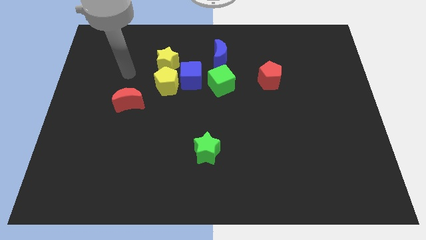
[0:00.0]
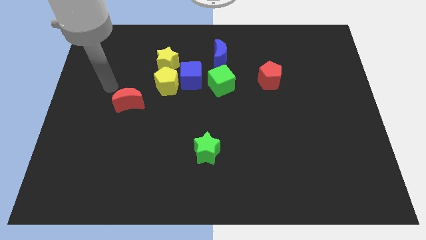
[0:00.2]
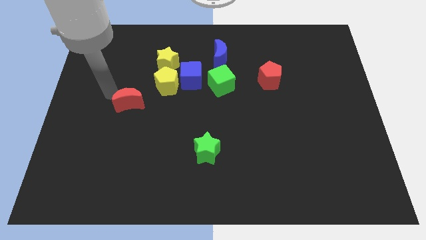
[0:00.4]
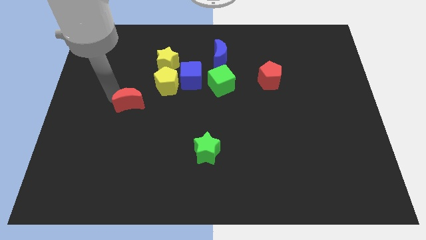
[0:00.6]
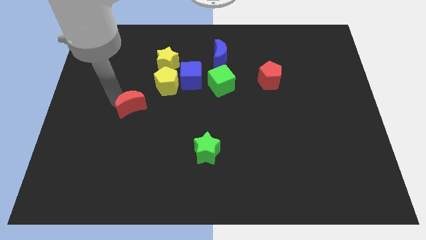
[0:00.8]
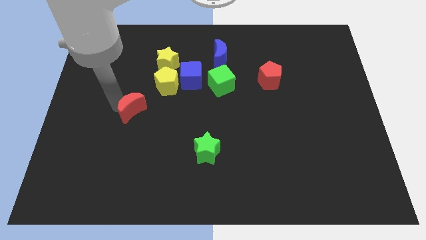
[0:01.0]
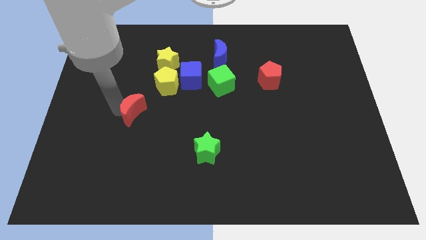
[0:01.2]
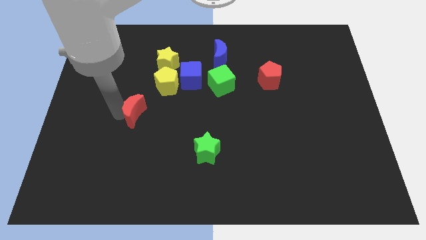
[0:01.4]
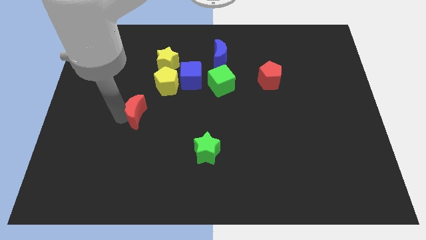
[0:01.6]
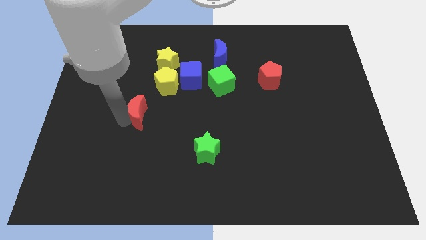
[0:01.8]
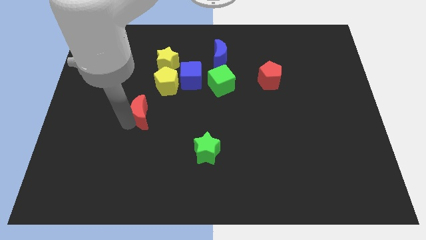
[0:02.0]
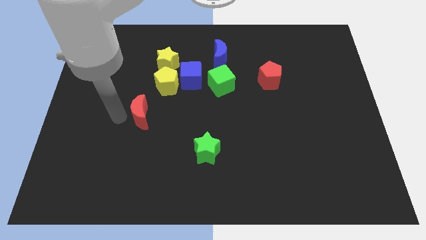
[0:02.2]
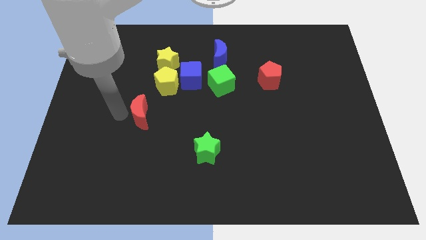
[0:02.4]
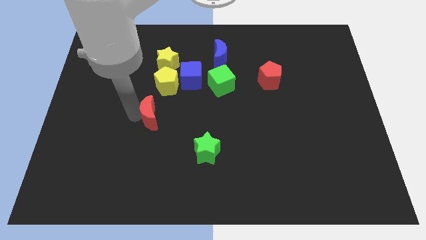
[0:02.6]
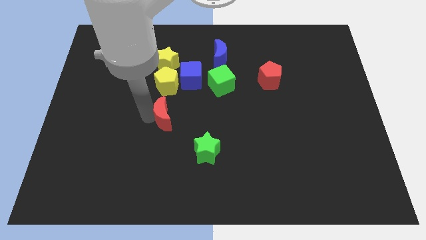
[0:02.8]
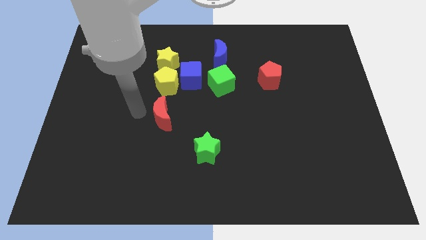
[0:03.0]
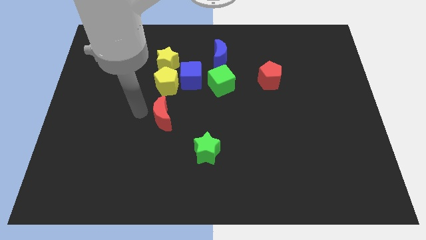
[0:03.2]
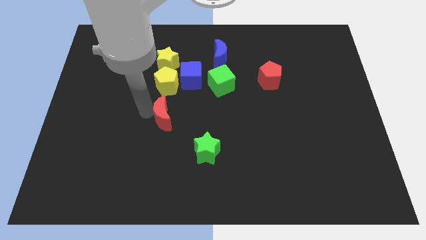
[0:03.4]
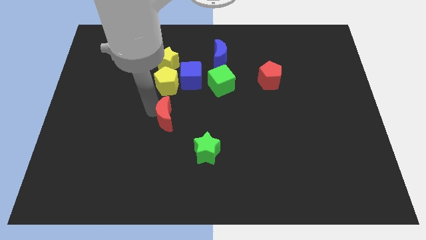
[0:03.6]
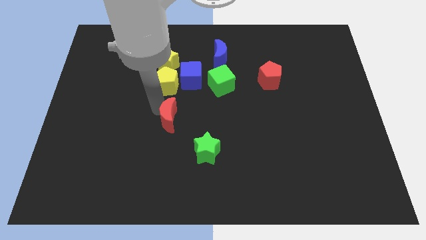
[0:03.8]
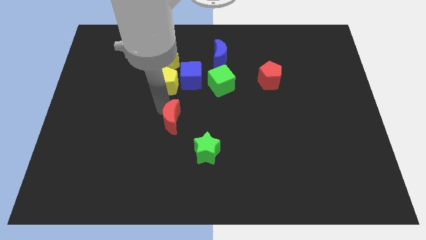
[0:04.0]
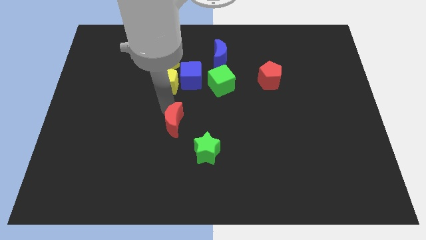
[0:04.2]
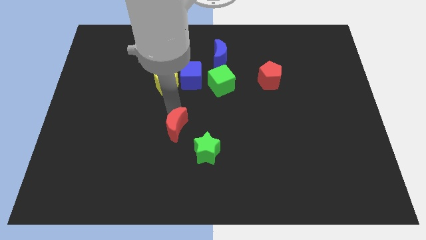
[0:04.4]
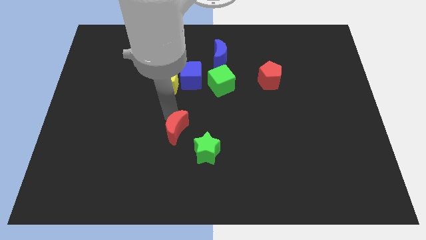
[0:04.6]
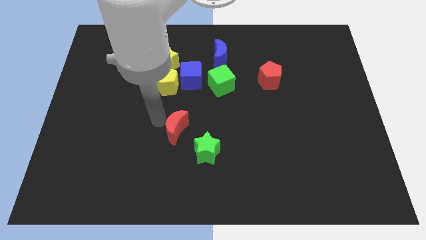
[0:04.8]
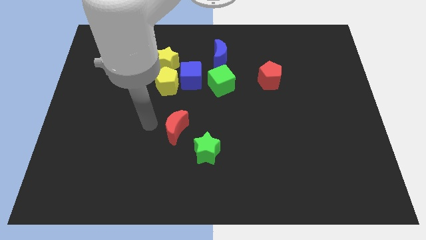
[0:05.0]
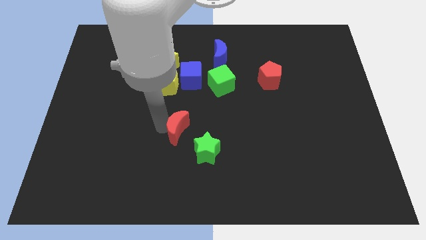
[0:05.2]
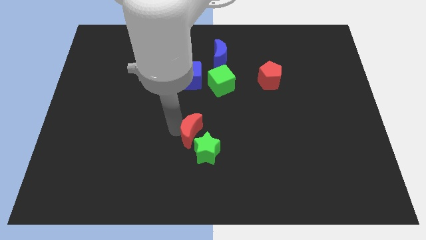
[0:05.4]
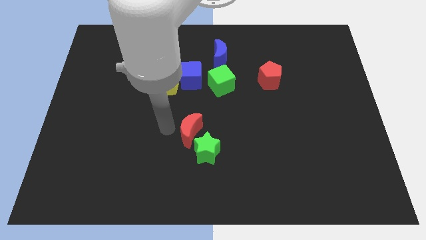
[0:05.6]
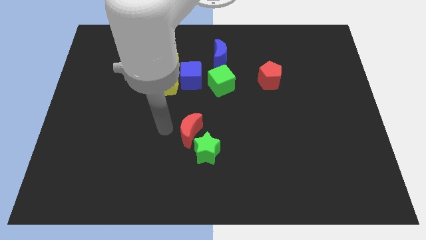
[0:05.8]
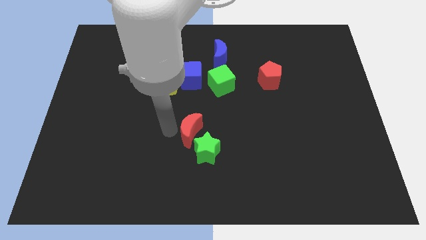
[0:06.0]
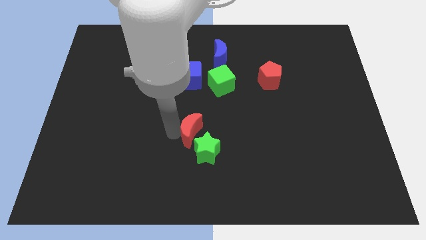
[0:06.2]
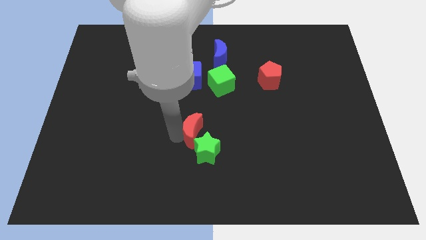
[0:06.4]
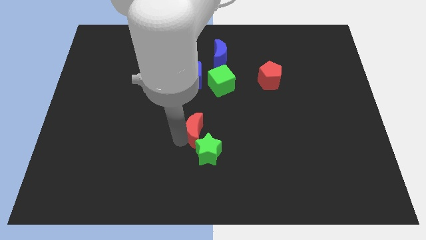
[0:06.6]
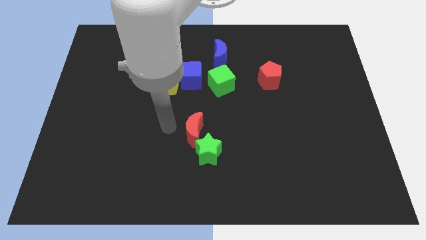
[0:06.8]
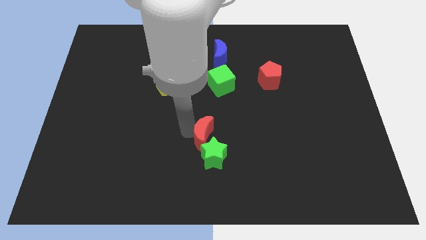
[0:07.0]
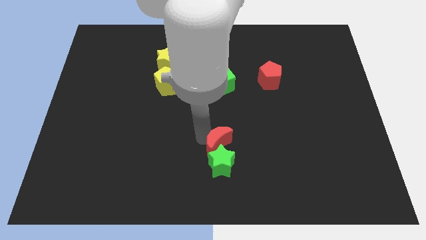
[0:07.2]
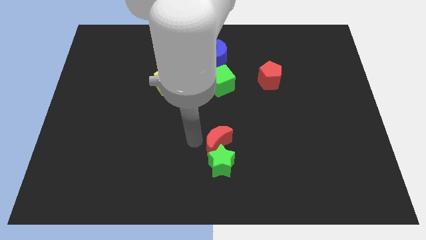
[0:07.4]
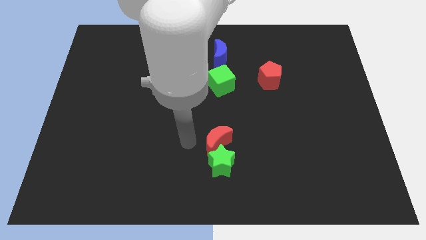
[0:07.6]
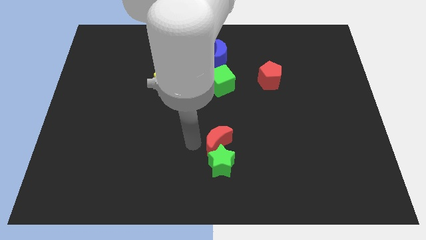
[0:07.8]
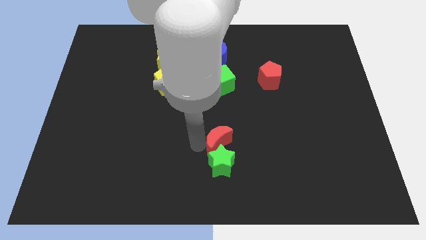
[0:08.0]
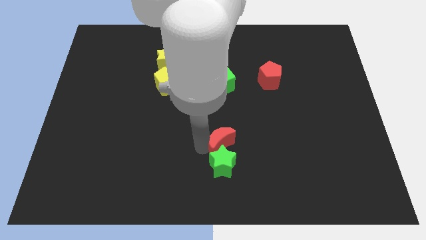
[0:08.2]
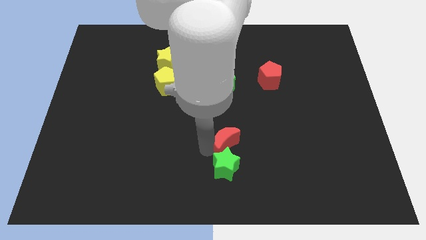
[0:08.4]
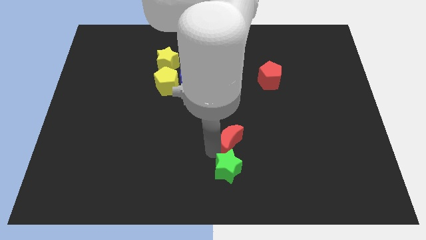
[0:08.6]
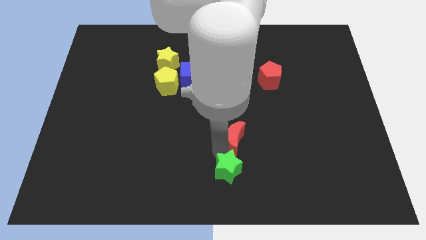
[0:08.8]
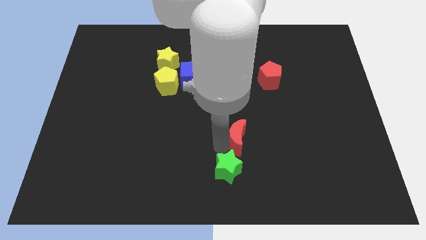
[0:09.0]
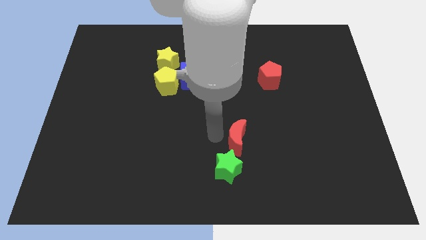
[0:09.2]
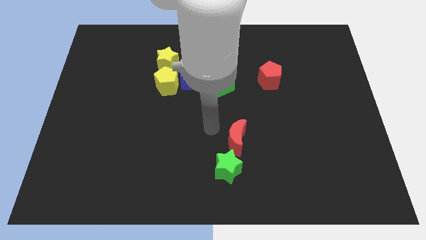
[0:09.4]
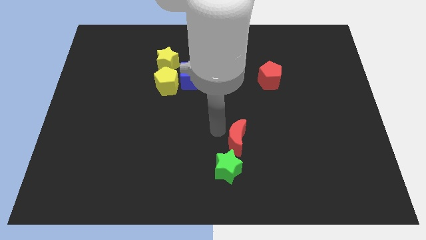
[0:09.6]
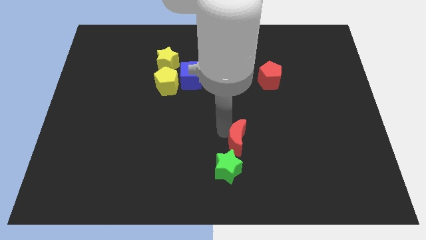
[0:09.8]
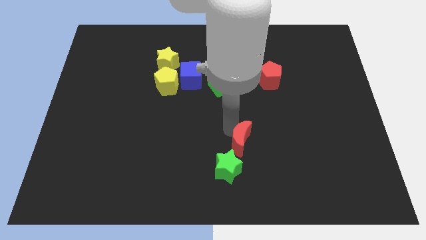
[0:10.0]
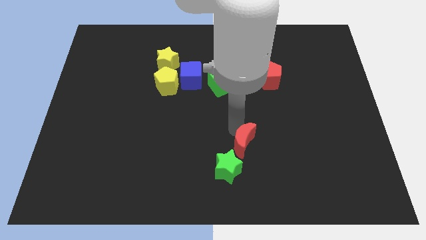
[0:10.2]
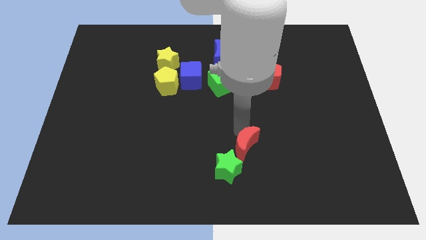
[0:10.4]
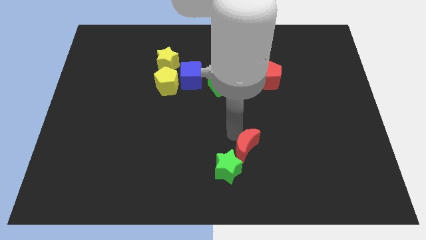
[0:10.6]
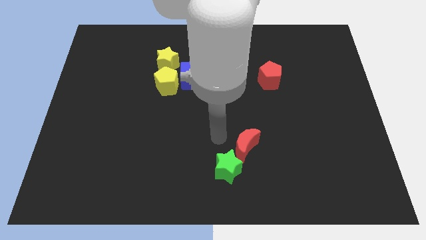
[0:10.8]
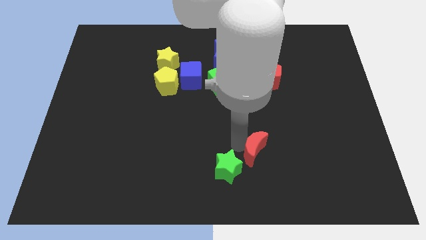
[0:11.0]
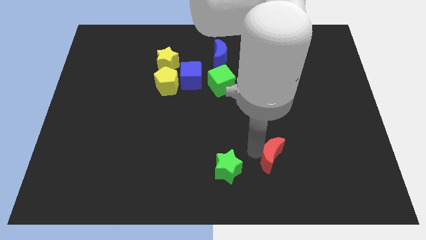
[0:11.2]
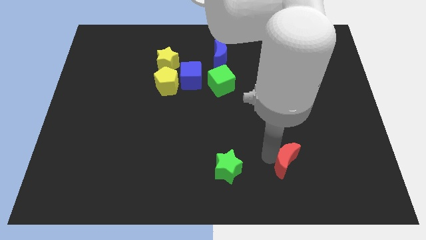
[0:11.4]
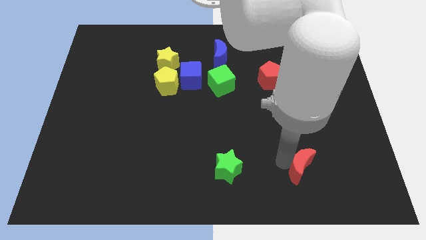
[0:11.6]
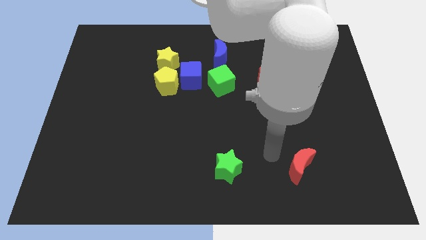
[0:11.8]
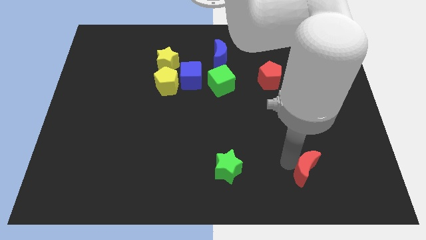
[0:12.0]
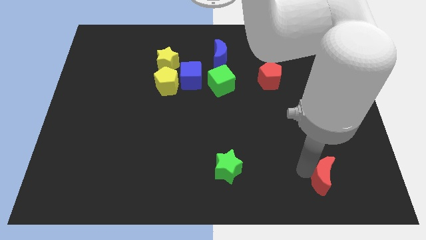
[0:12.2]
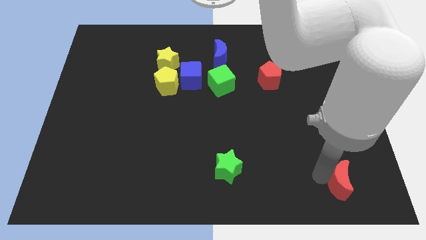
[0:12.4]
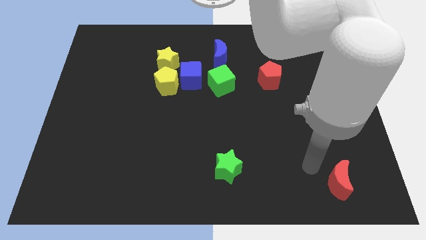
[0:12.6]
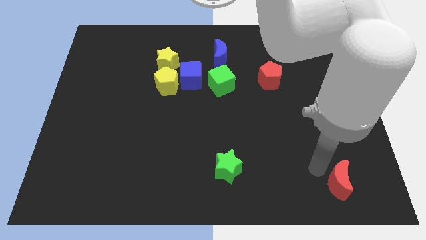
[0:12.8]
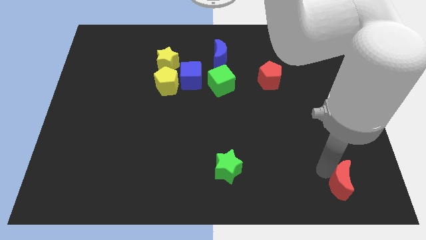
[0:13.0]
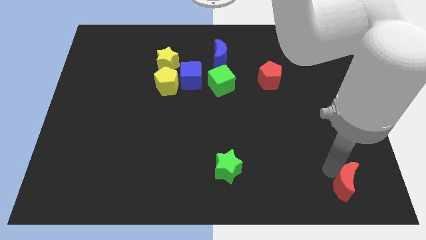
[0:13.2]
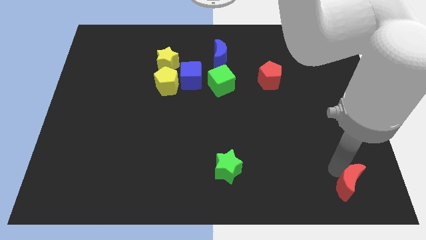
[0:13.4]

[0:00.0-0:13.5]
move the red moon to the lower right corner
